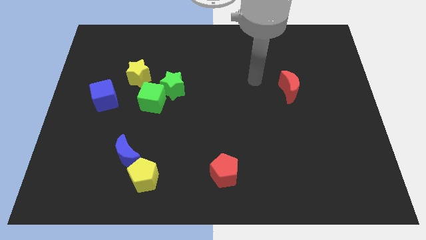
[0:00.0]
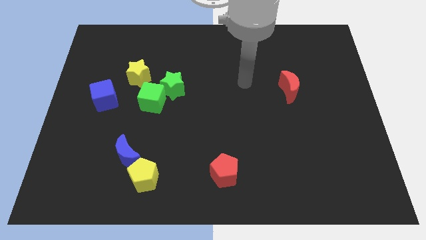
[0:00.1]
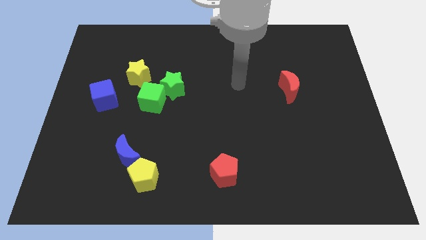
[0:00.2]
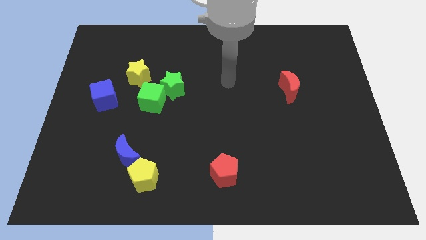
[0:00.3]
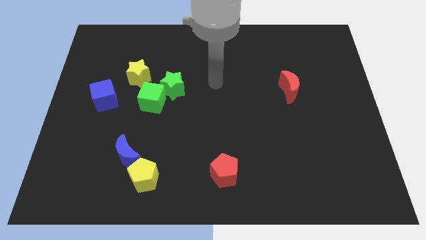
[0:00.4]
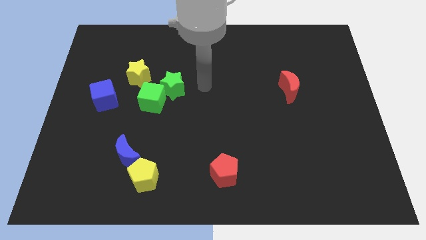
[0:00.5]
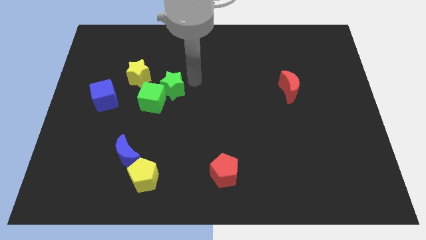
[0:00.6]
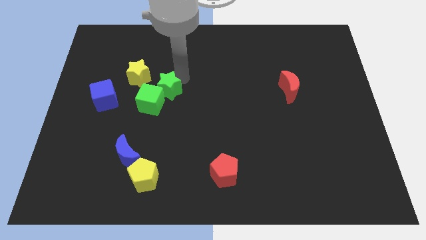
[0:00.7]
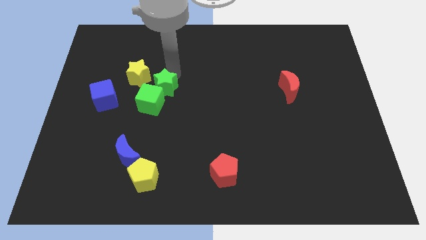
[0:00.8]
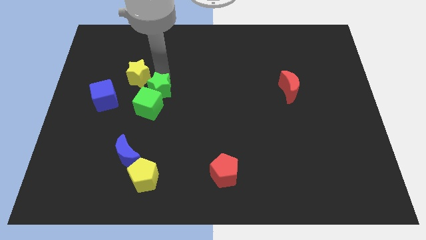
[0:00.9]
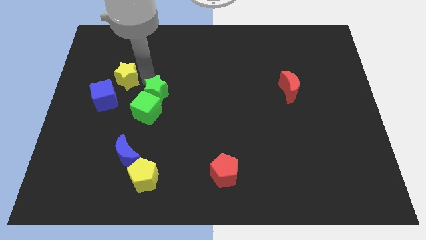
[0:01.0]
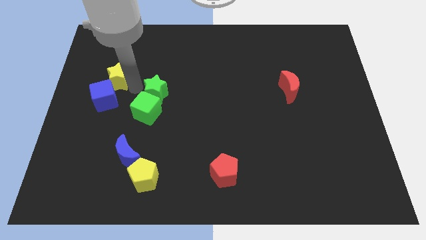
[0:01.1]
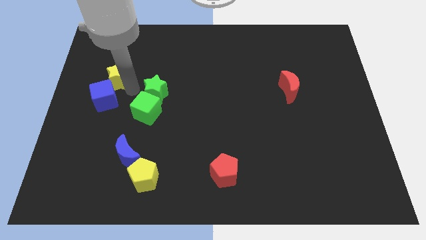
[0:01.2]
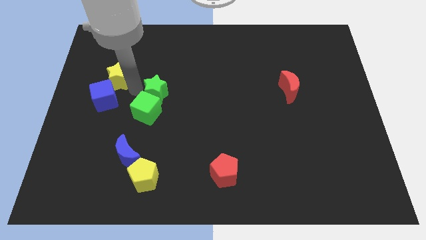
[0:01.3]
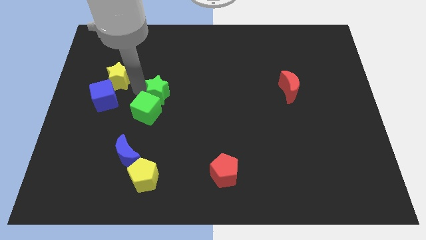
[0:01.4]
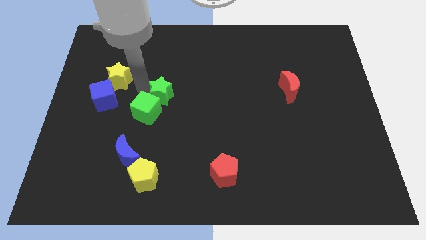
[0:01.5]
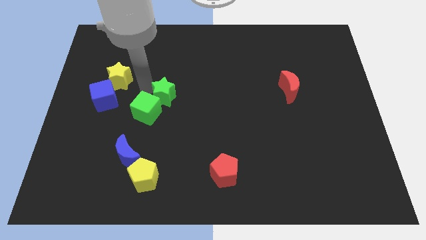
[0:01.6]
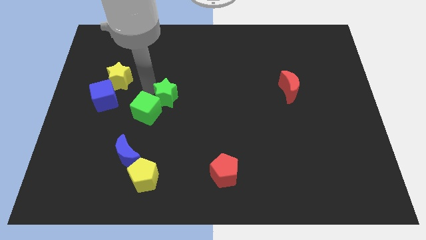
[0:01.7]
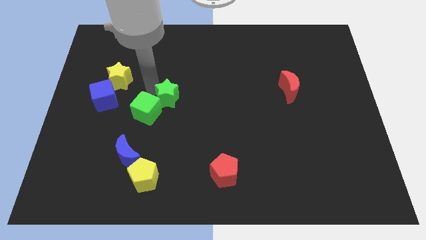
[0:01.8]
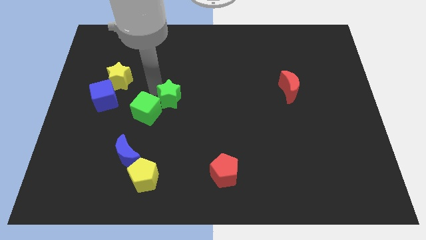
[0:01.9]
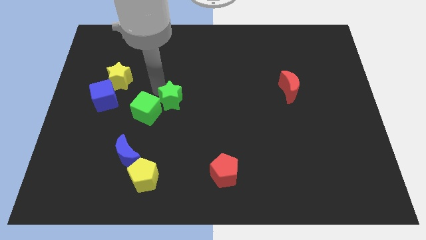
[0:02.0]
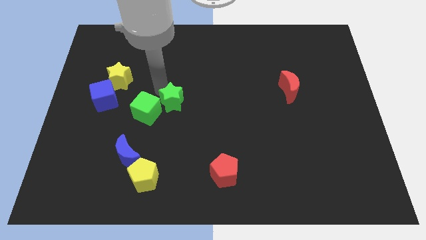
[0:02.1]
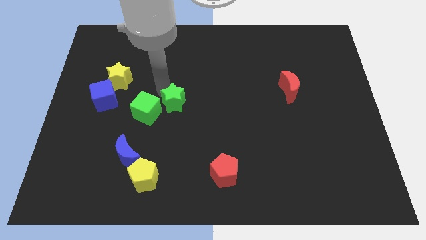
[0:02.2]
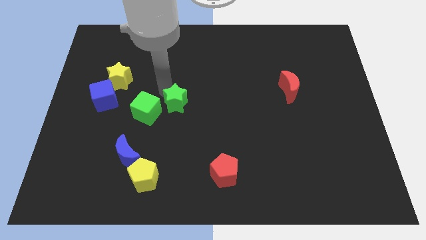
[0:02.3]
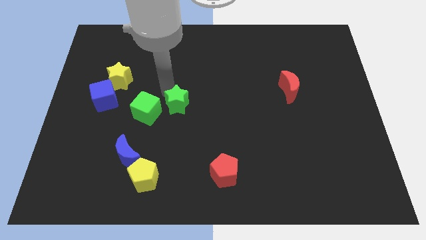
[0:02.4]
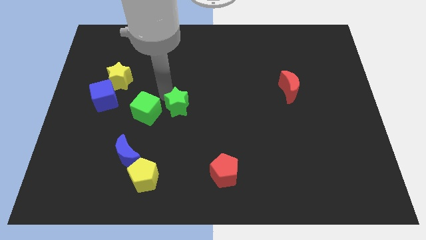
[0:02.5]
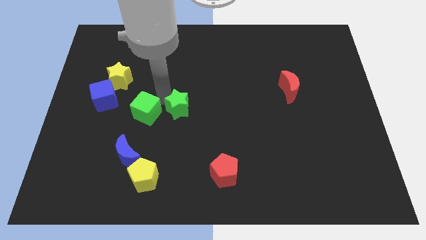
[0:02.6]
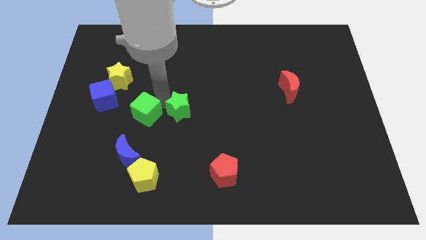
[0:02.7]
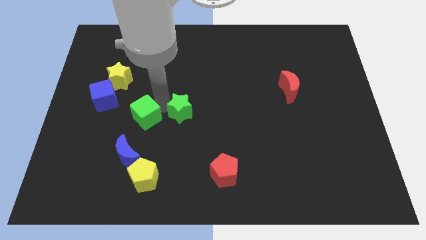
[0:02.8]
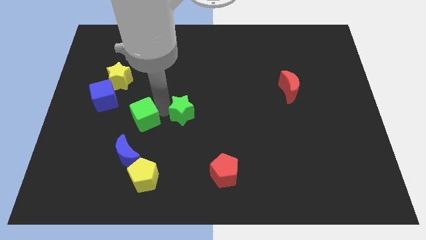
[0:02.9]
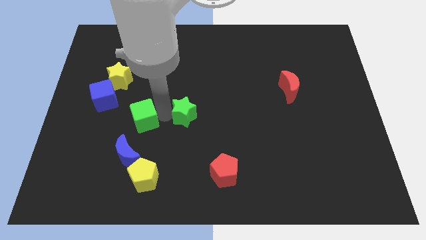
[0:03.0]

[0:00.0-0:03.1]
push the green star downwards and to the right diagonally somewhat

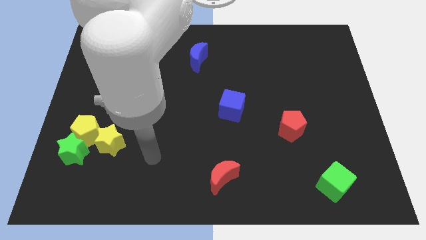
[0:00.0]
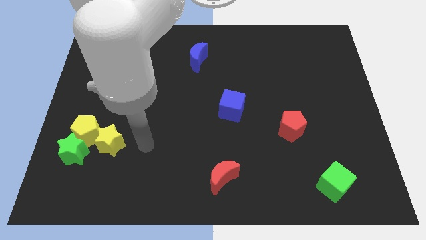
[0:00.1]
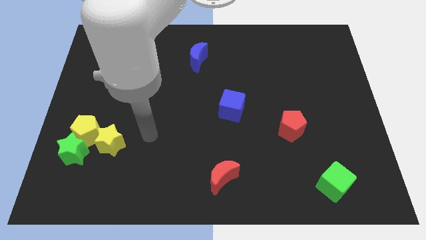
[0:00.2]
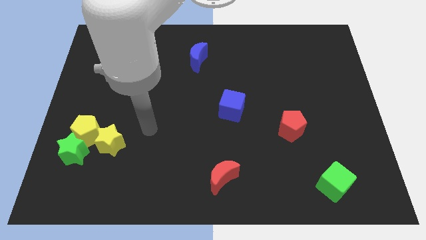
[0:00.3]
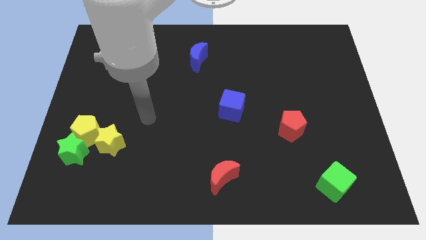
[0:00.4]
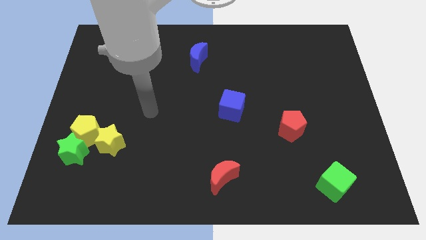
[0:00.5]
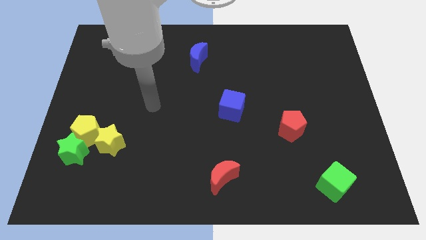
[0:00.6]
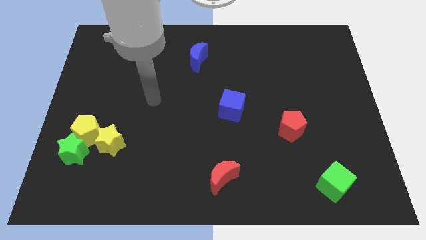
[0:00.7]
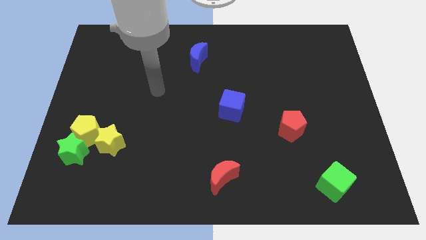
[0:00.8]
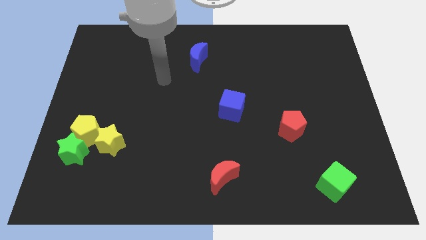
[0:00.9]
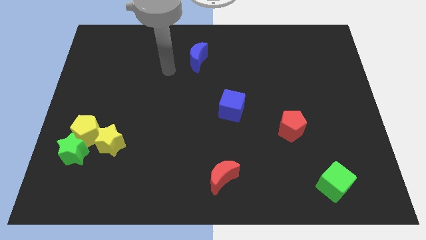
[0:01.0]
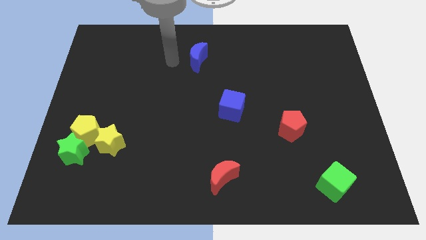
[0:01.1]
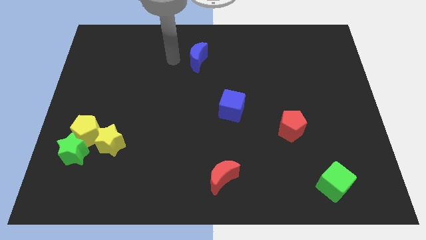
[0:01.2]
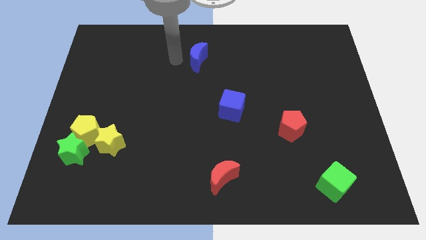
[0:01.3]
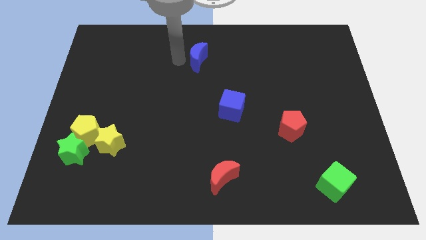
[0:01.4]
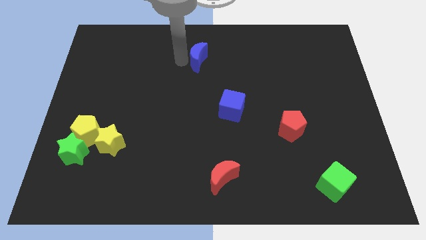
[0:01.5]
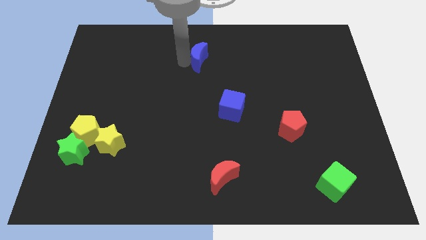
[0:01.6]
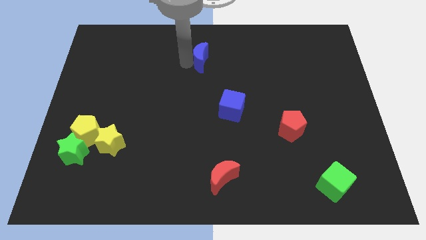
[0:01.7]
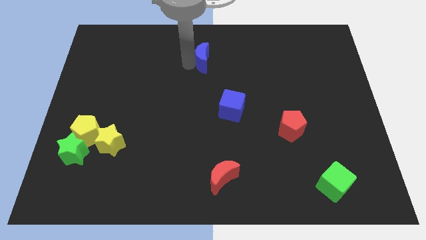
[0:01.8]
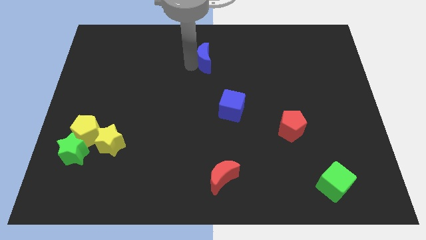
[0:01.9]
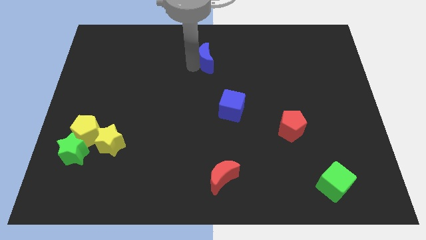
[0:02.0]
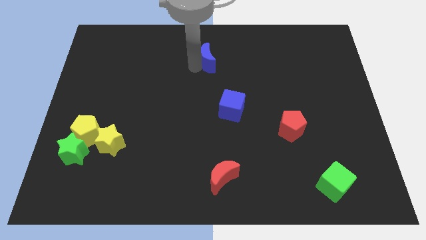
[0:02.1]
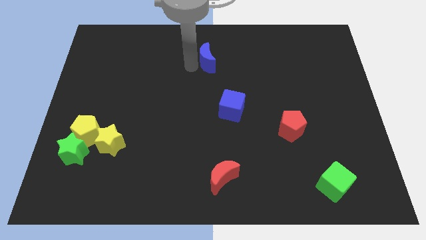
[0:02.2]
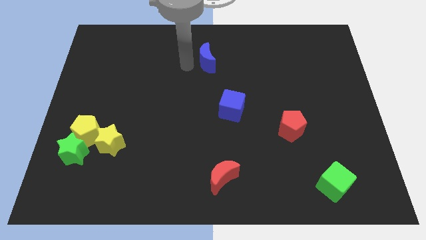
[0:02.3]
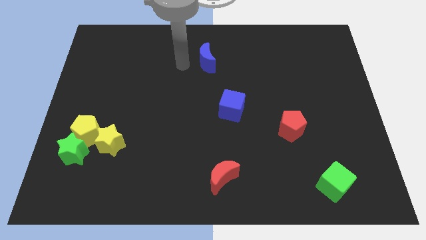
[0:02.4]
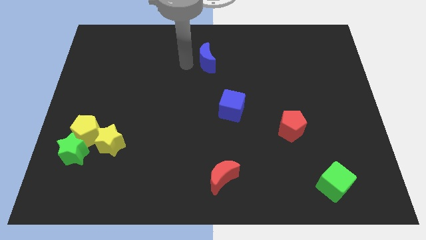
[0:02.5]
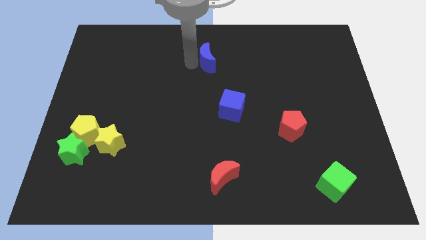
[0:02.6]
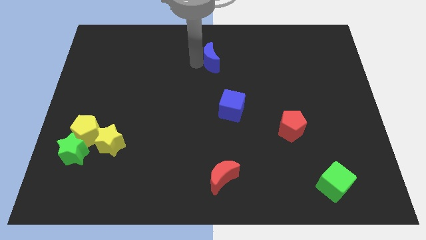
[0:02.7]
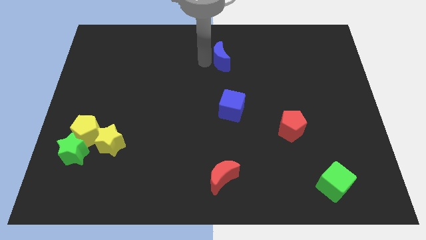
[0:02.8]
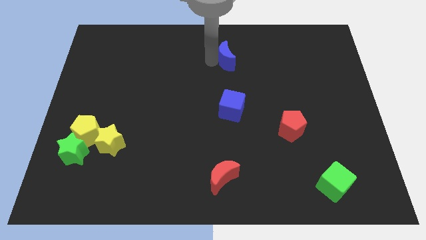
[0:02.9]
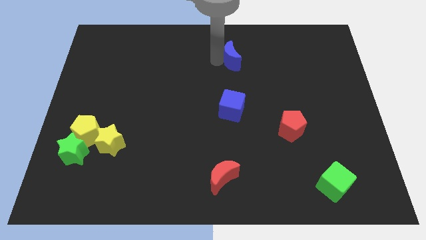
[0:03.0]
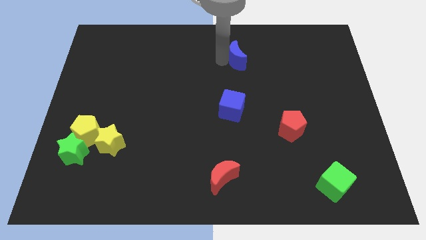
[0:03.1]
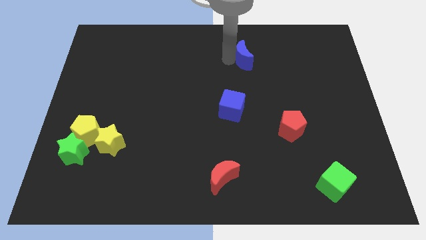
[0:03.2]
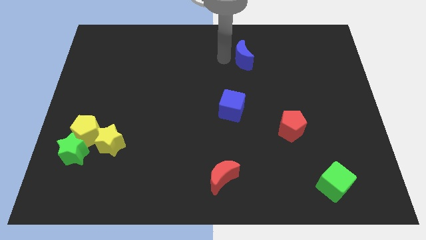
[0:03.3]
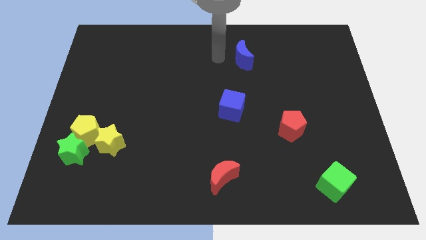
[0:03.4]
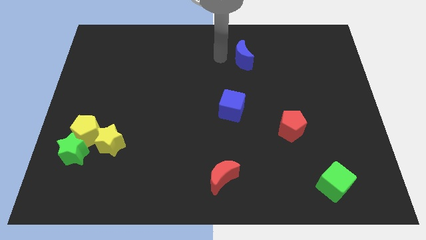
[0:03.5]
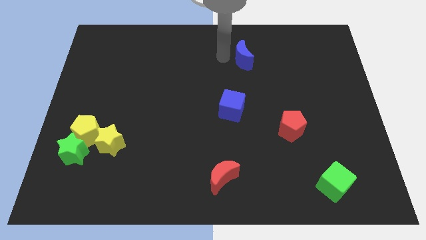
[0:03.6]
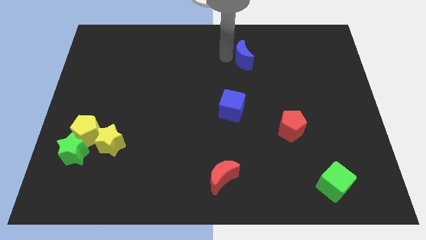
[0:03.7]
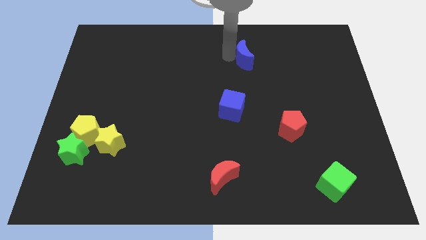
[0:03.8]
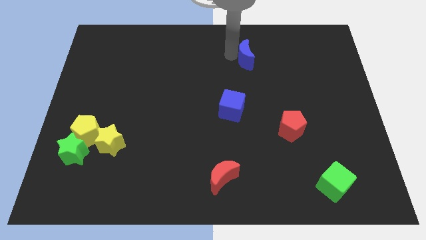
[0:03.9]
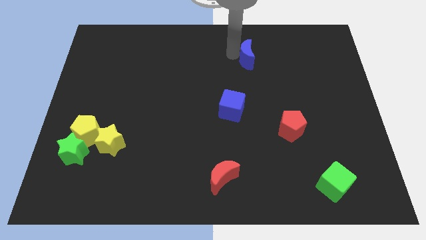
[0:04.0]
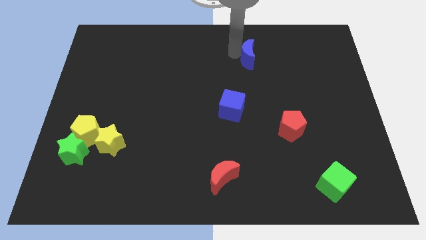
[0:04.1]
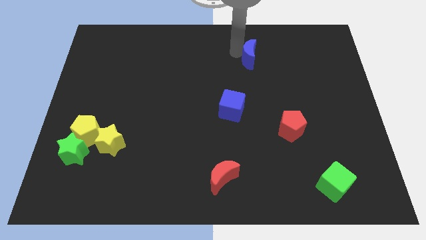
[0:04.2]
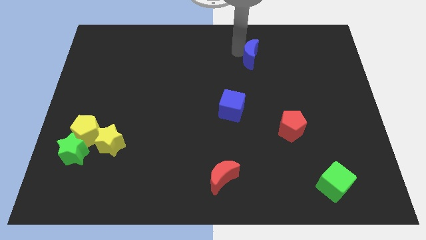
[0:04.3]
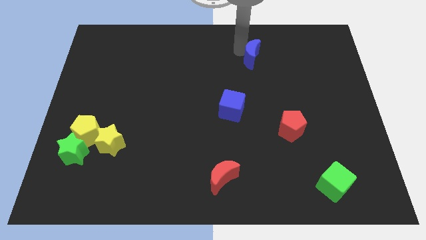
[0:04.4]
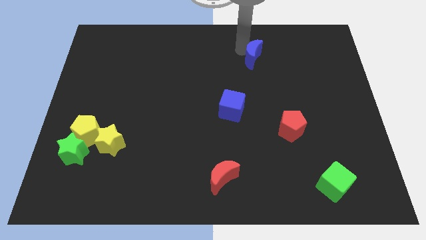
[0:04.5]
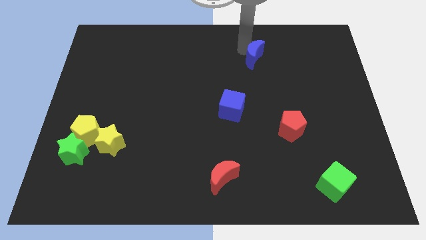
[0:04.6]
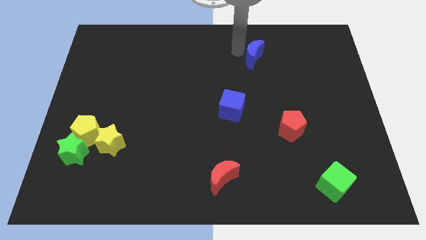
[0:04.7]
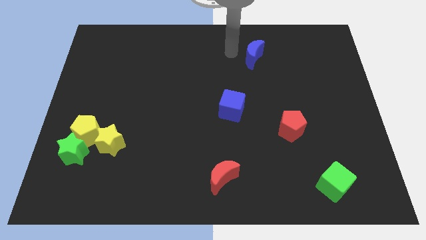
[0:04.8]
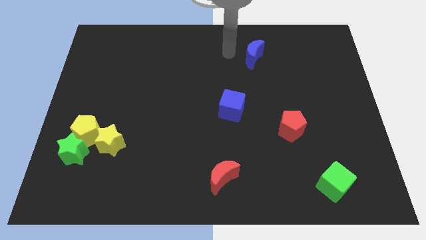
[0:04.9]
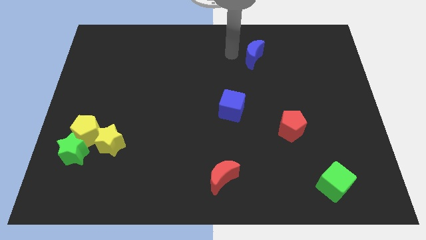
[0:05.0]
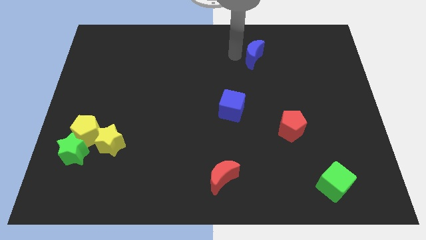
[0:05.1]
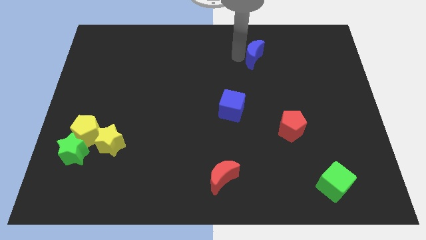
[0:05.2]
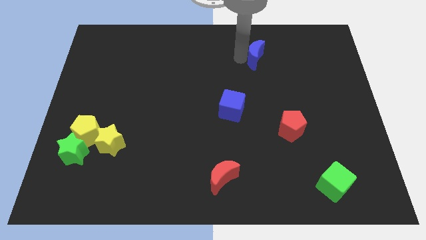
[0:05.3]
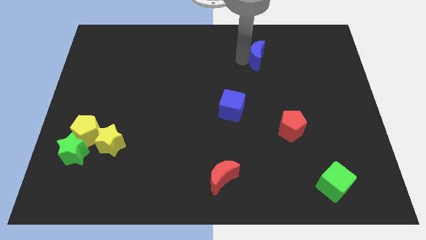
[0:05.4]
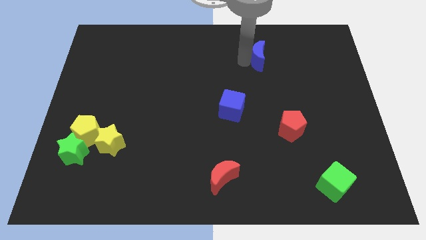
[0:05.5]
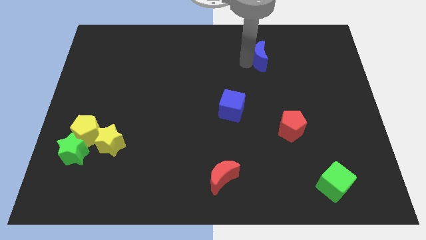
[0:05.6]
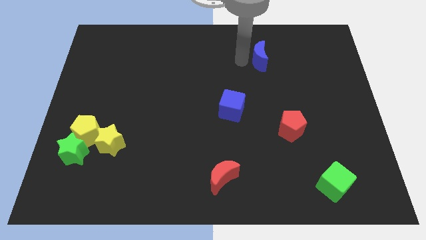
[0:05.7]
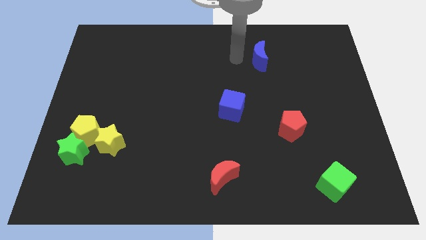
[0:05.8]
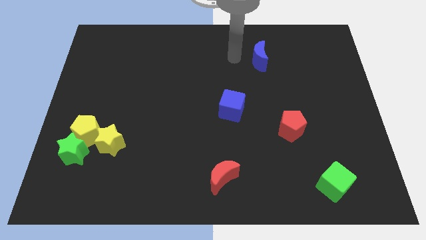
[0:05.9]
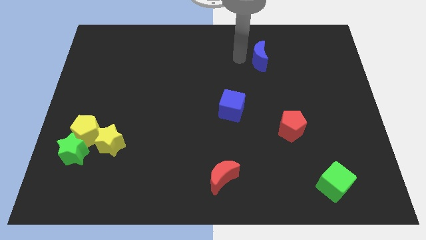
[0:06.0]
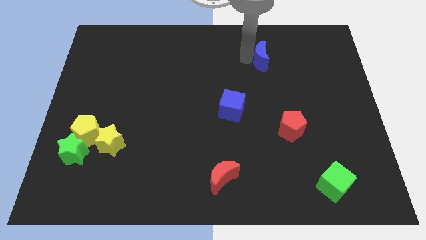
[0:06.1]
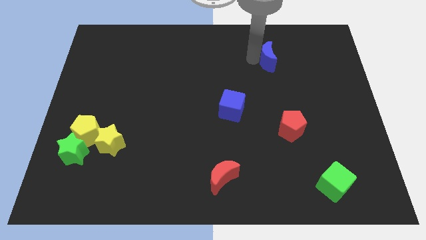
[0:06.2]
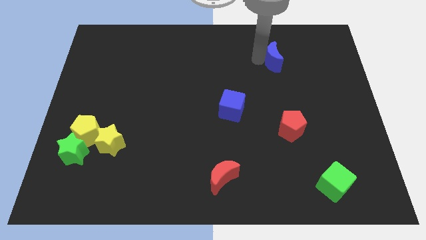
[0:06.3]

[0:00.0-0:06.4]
move the blue moon to the right
